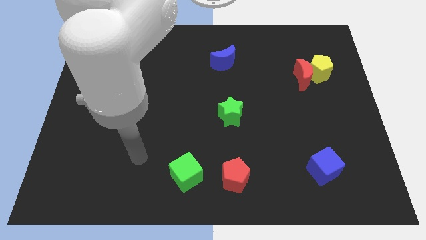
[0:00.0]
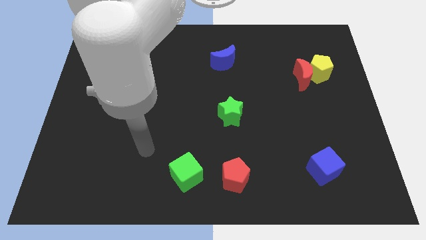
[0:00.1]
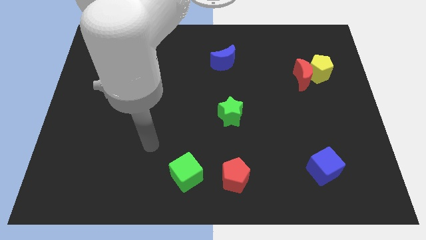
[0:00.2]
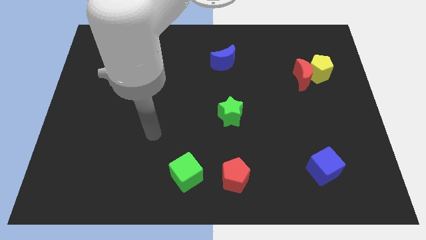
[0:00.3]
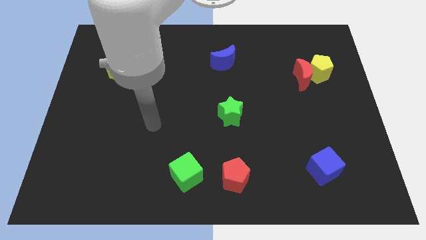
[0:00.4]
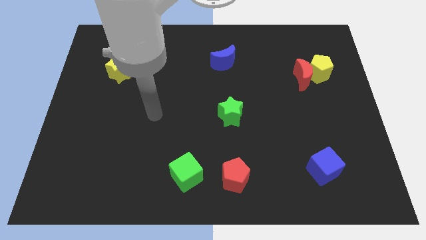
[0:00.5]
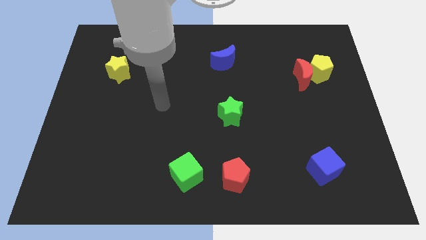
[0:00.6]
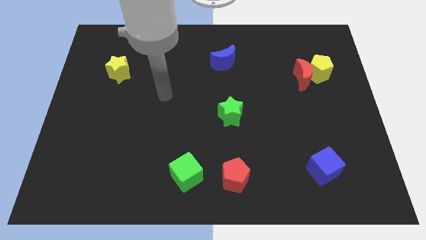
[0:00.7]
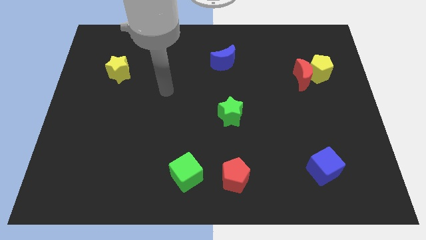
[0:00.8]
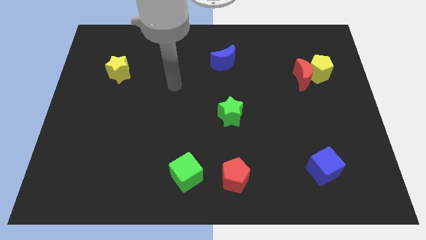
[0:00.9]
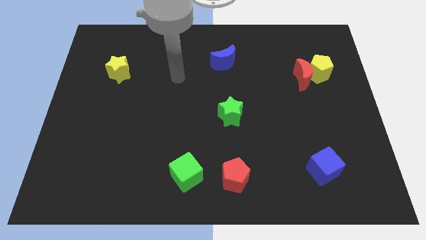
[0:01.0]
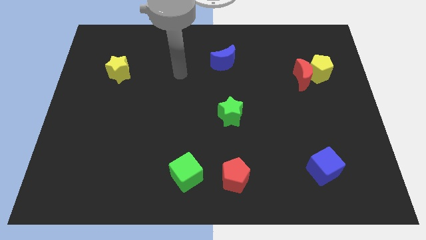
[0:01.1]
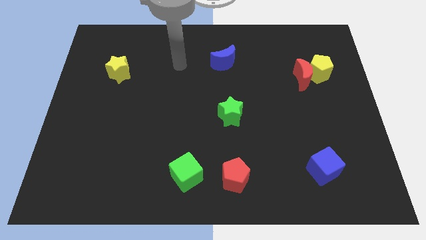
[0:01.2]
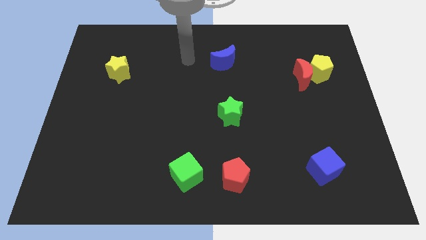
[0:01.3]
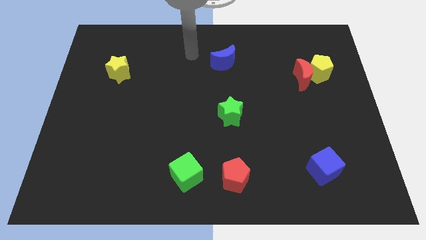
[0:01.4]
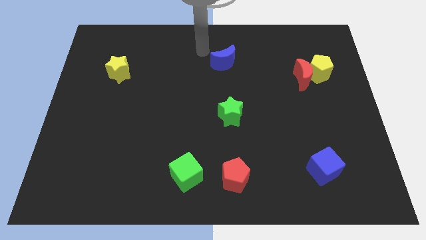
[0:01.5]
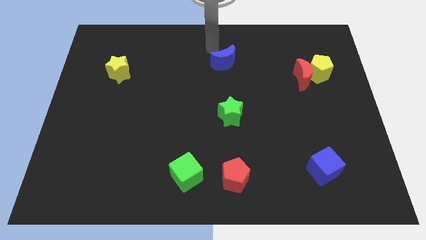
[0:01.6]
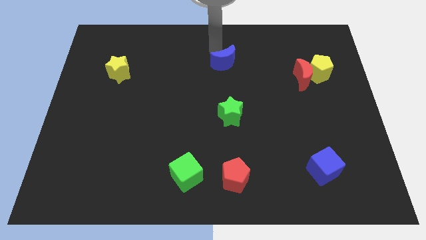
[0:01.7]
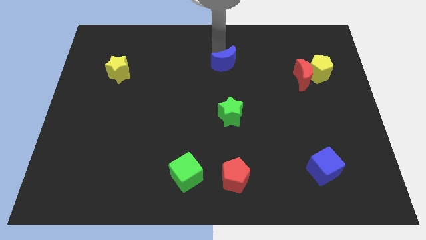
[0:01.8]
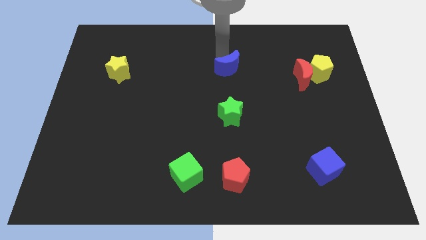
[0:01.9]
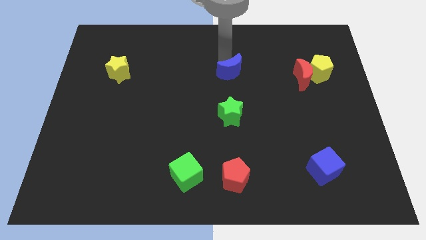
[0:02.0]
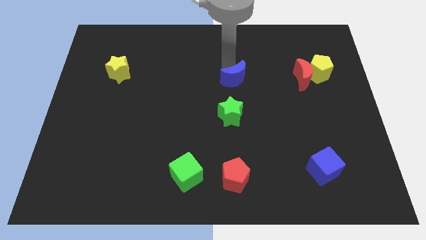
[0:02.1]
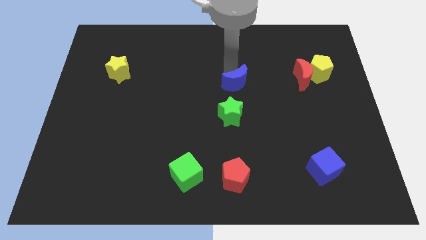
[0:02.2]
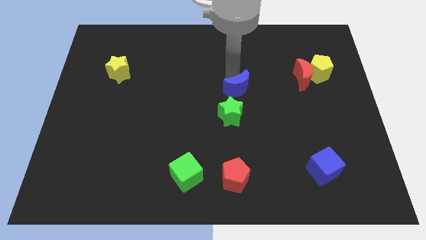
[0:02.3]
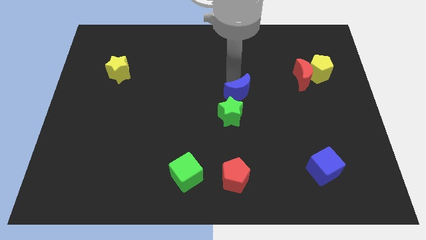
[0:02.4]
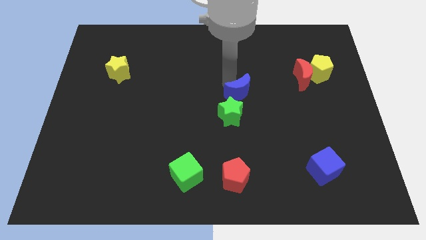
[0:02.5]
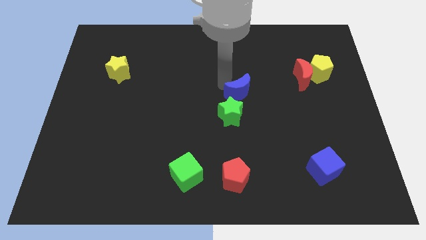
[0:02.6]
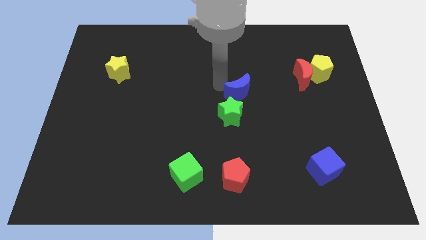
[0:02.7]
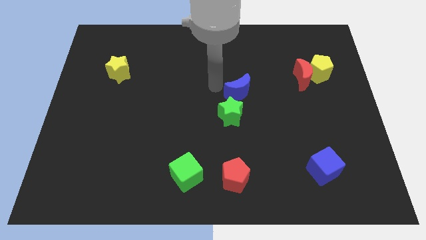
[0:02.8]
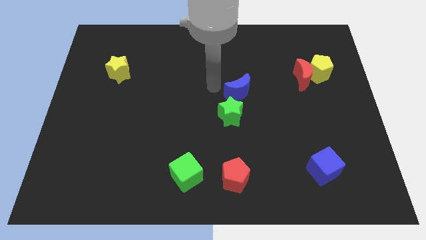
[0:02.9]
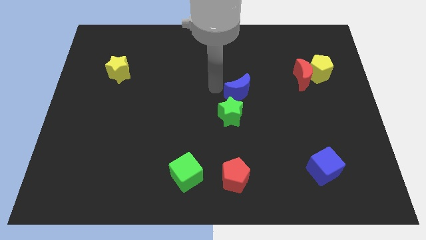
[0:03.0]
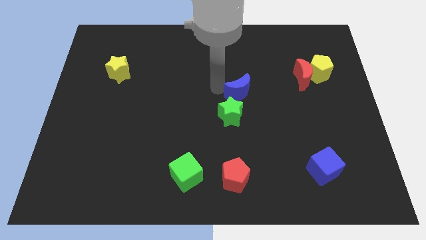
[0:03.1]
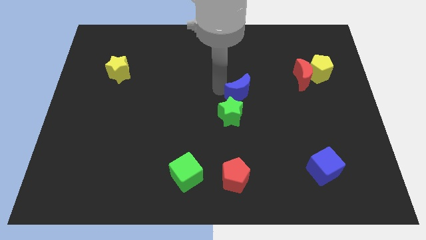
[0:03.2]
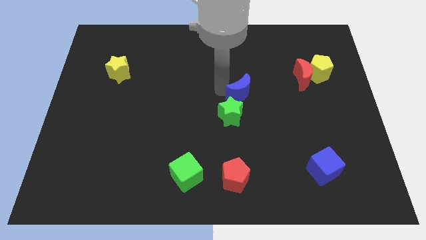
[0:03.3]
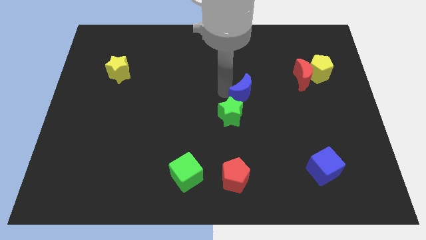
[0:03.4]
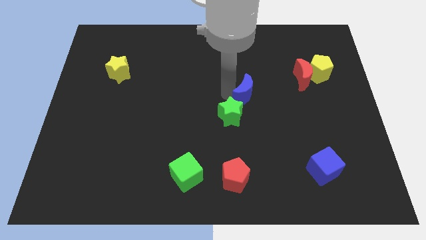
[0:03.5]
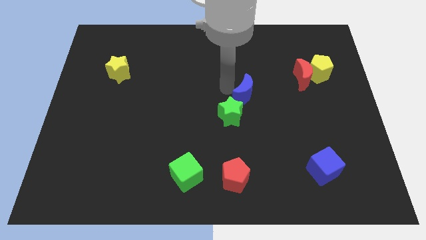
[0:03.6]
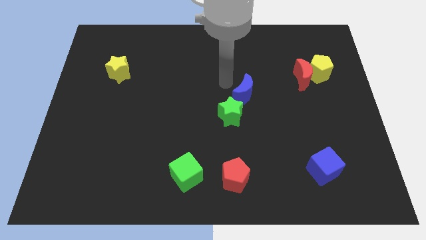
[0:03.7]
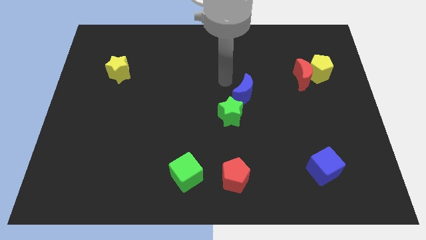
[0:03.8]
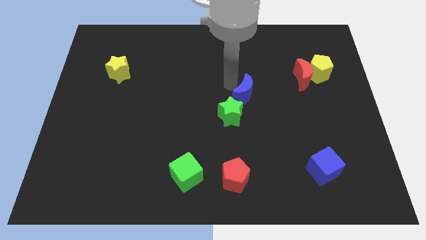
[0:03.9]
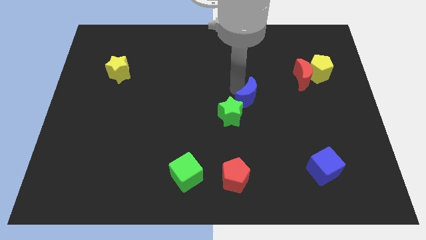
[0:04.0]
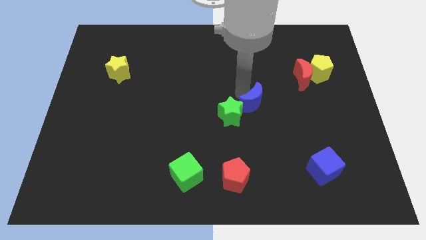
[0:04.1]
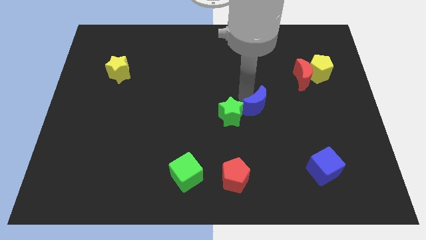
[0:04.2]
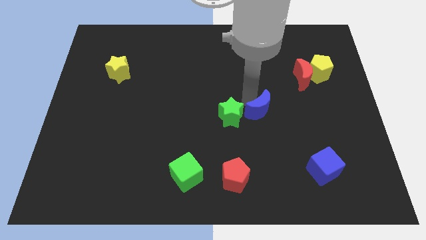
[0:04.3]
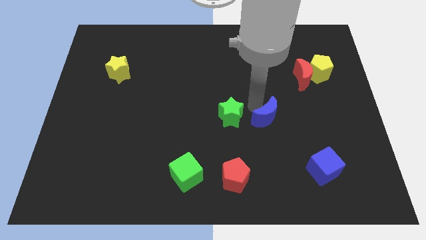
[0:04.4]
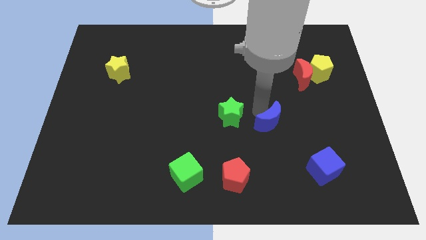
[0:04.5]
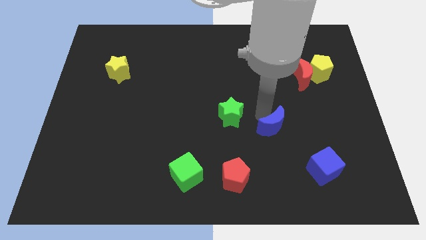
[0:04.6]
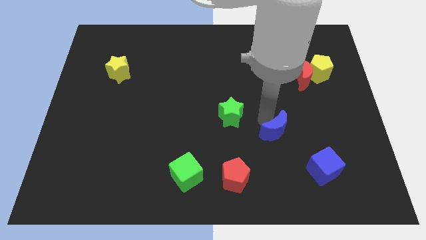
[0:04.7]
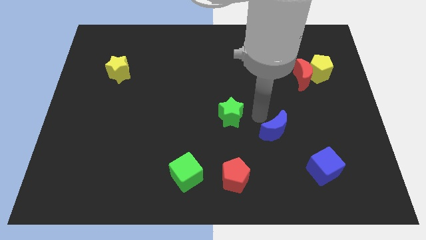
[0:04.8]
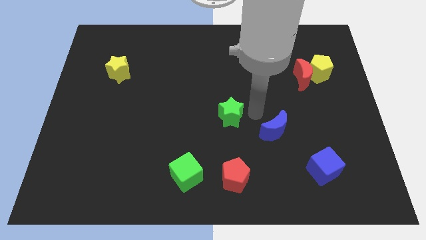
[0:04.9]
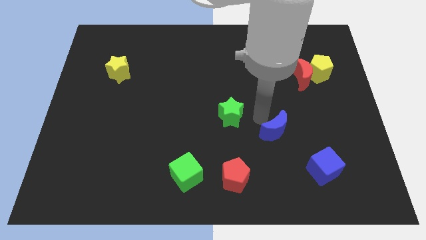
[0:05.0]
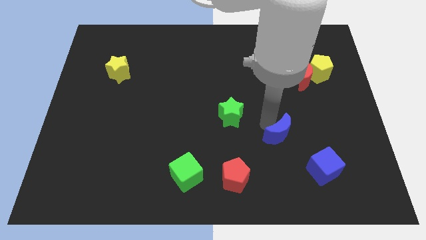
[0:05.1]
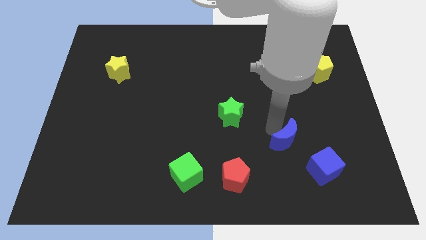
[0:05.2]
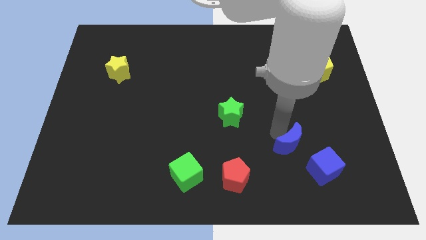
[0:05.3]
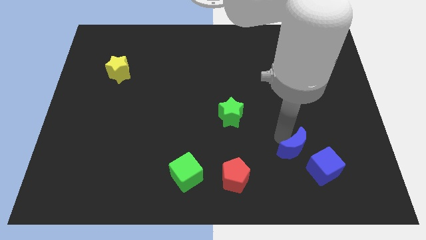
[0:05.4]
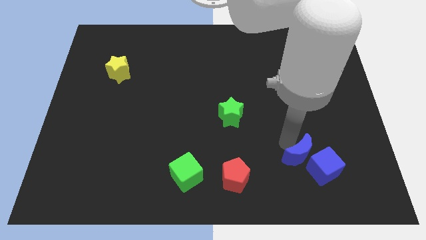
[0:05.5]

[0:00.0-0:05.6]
slide the blue moon close to the blue cube

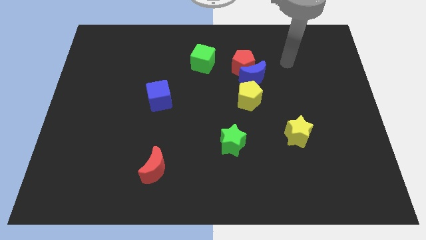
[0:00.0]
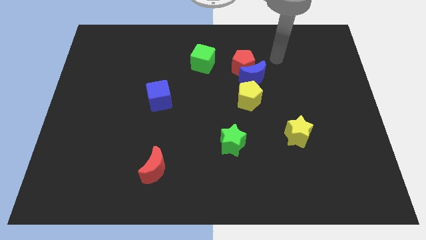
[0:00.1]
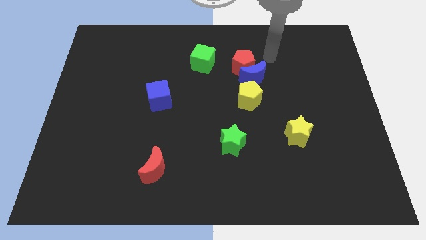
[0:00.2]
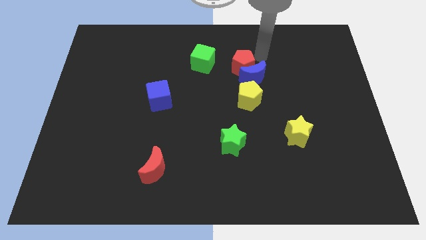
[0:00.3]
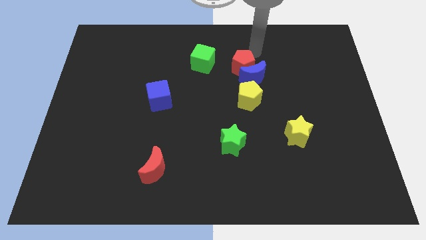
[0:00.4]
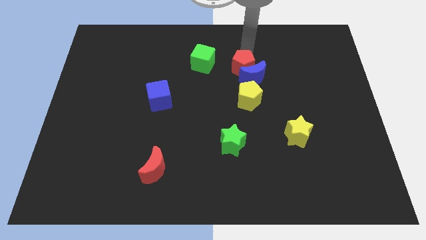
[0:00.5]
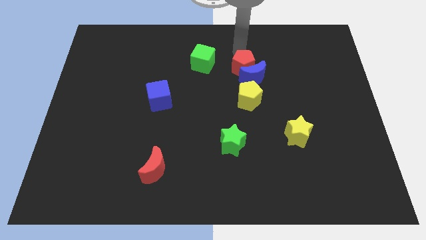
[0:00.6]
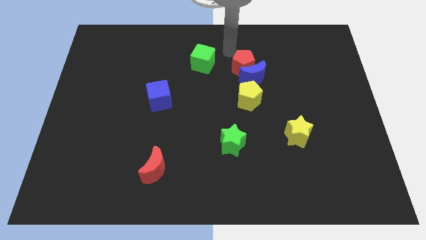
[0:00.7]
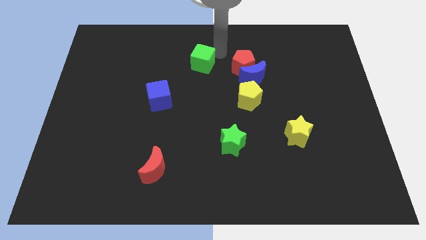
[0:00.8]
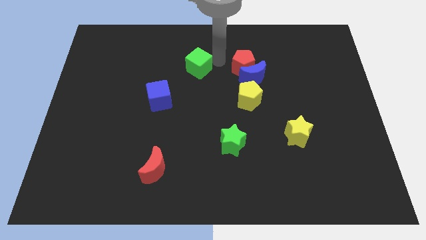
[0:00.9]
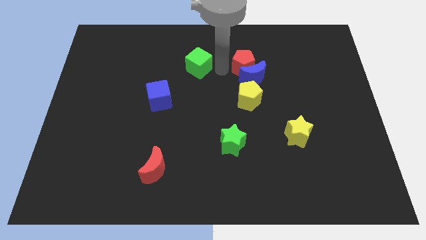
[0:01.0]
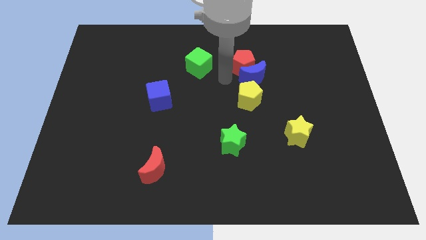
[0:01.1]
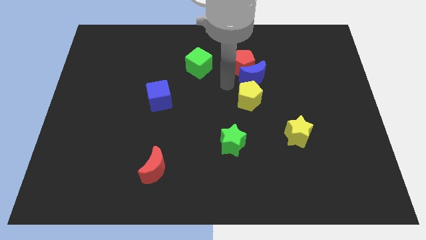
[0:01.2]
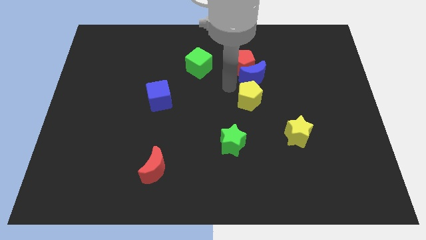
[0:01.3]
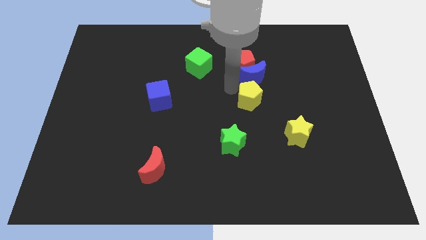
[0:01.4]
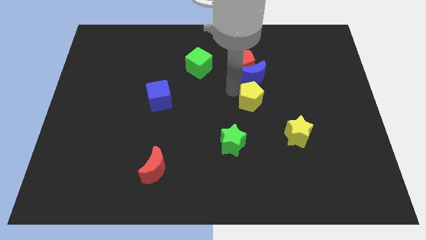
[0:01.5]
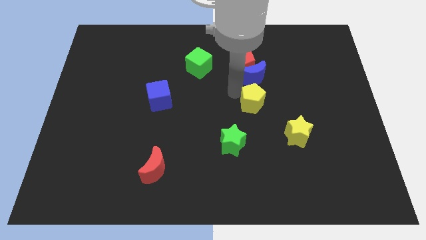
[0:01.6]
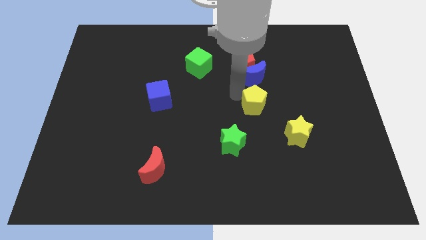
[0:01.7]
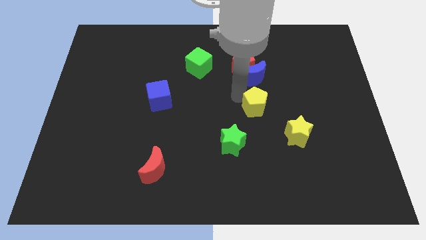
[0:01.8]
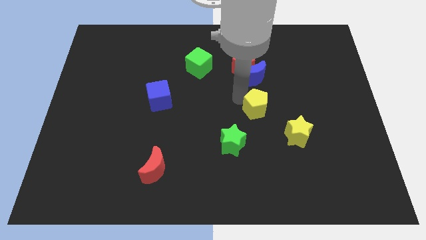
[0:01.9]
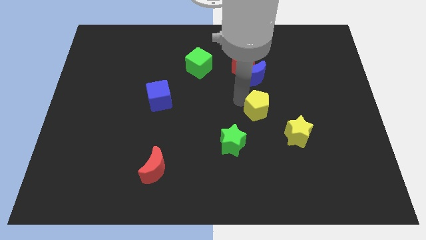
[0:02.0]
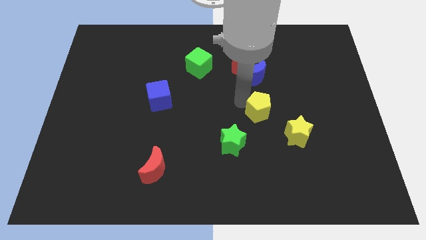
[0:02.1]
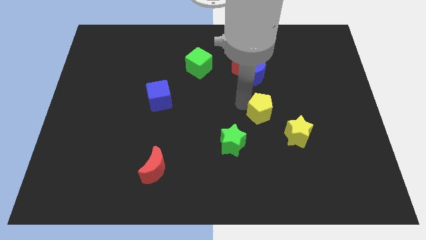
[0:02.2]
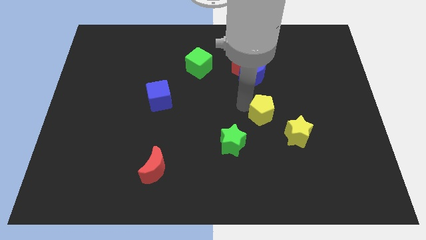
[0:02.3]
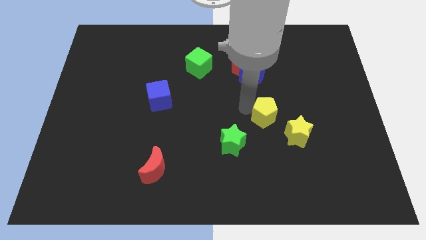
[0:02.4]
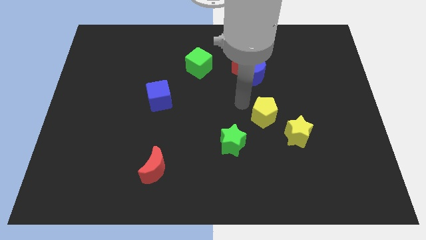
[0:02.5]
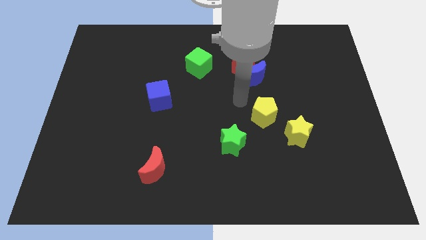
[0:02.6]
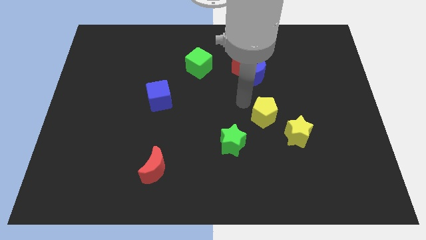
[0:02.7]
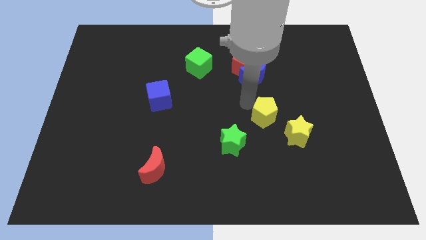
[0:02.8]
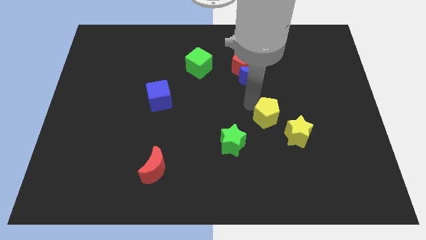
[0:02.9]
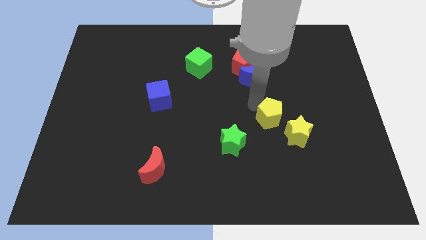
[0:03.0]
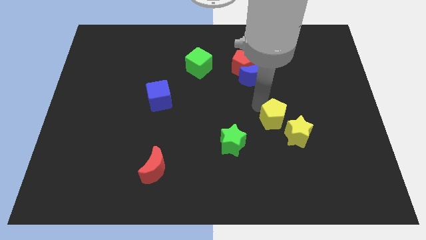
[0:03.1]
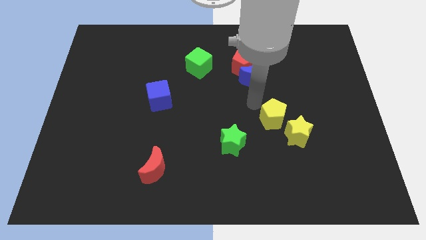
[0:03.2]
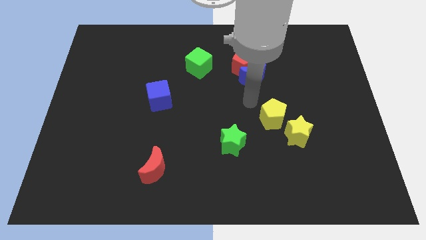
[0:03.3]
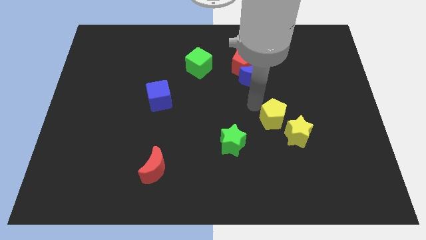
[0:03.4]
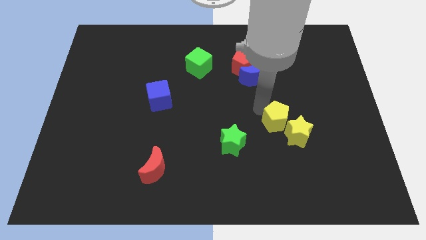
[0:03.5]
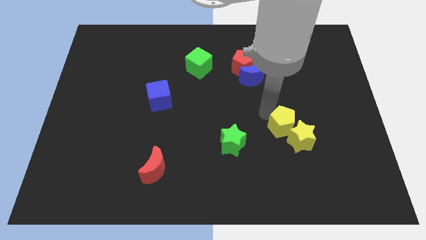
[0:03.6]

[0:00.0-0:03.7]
push the yellow pentagon close to the yellow star
